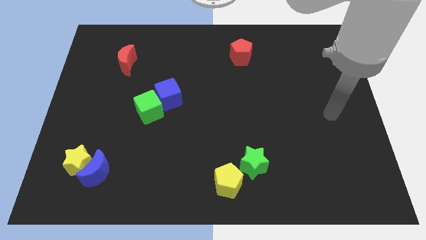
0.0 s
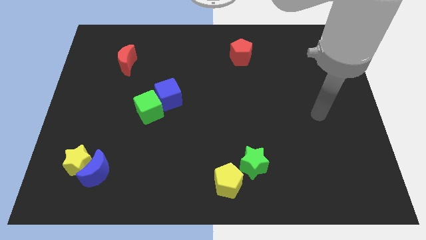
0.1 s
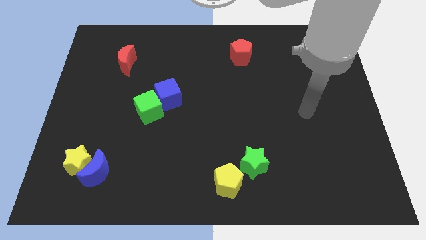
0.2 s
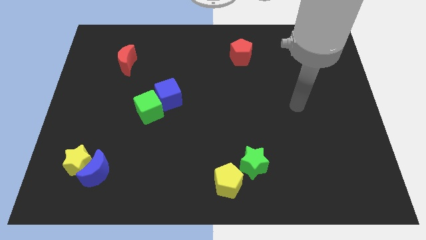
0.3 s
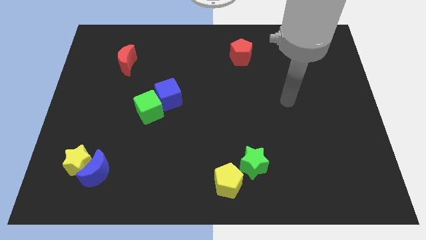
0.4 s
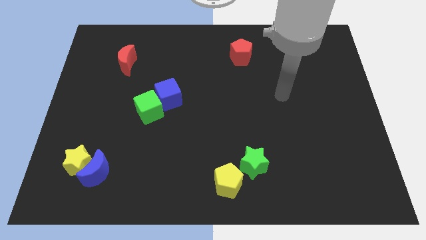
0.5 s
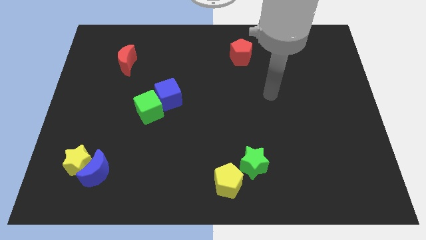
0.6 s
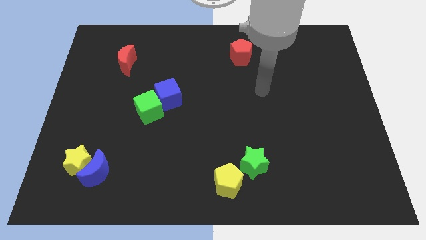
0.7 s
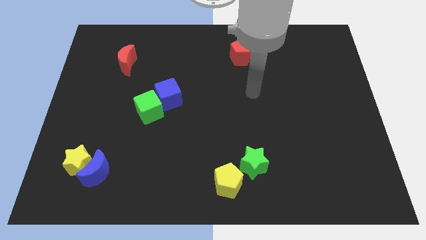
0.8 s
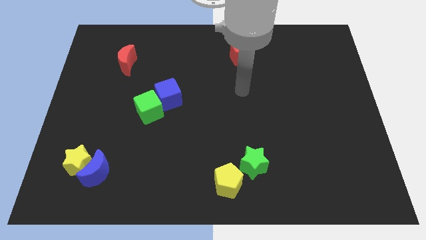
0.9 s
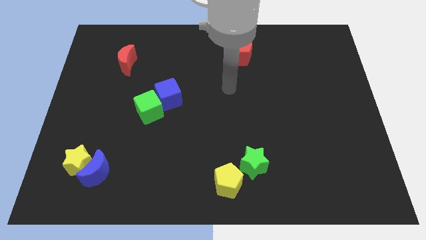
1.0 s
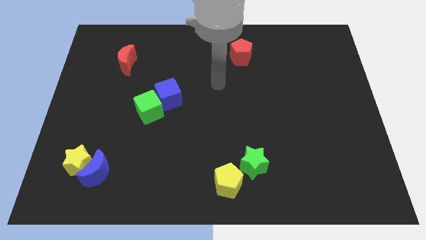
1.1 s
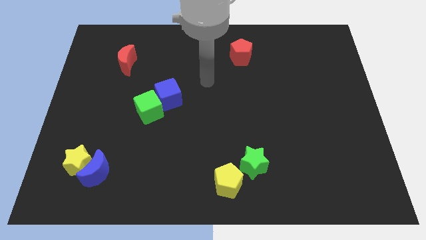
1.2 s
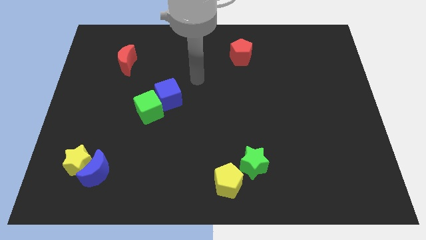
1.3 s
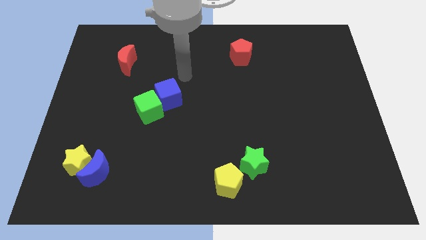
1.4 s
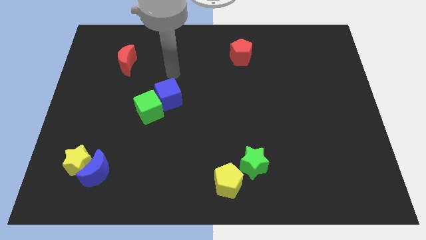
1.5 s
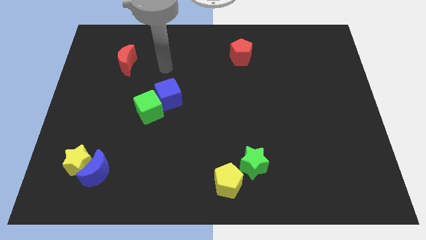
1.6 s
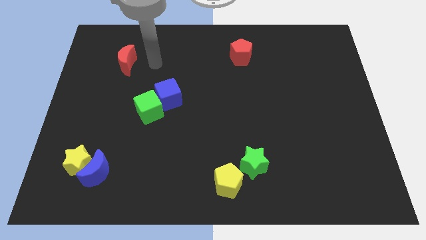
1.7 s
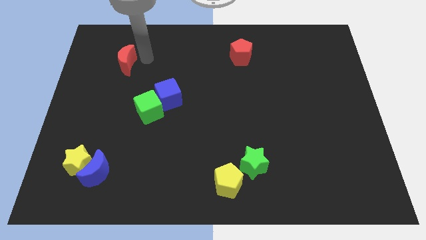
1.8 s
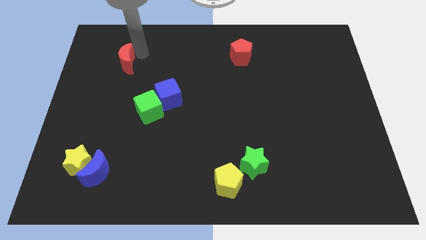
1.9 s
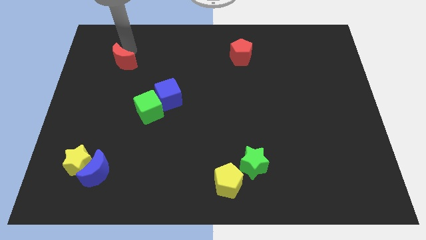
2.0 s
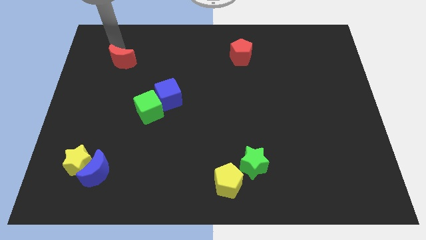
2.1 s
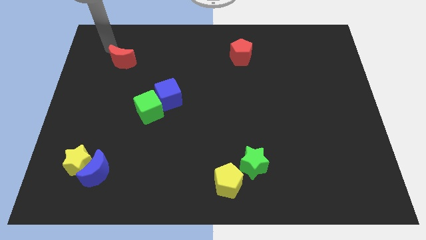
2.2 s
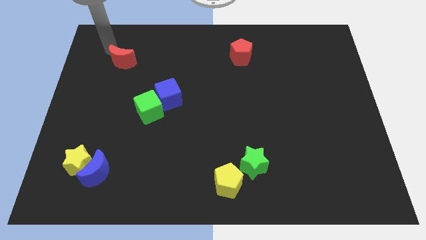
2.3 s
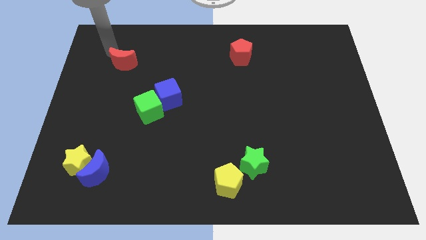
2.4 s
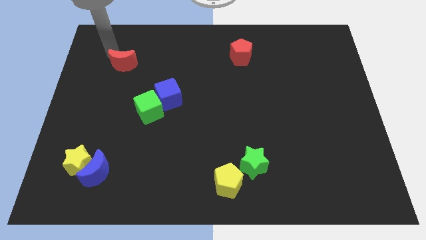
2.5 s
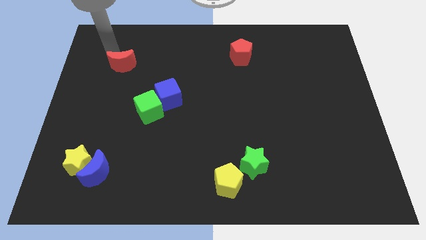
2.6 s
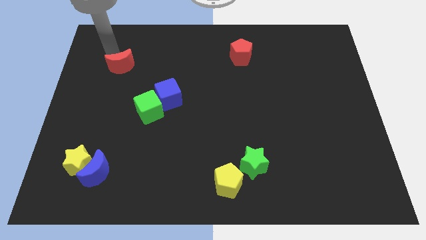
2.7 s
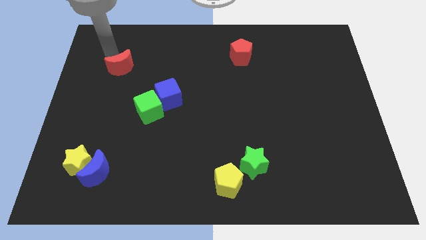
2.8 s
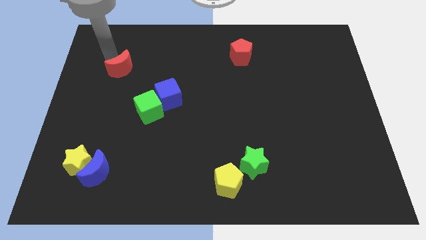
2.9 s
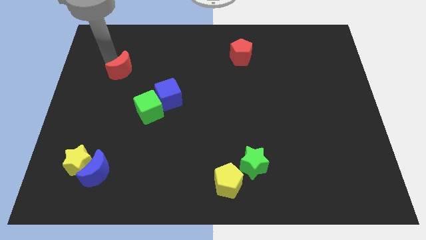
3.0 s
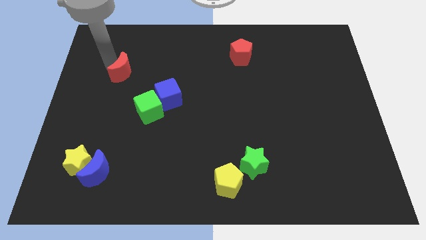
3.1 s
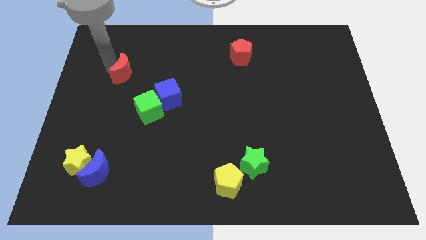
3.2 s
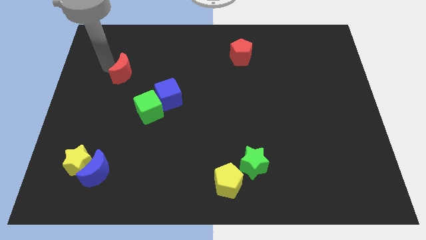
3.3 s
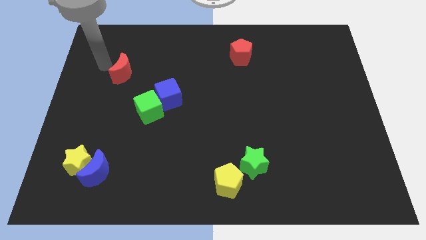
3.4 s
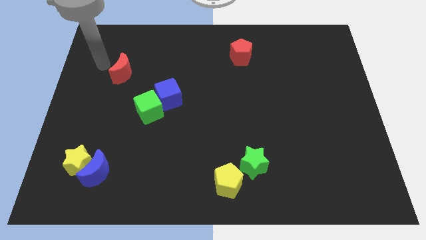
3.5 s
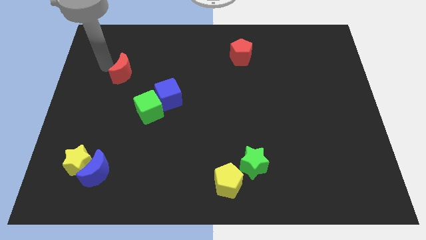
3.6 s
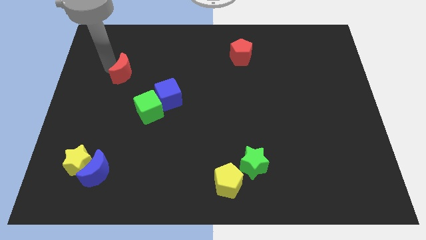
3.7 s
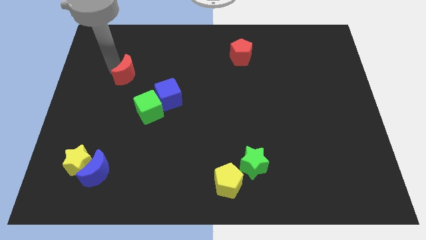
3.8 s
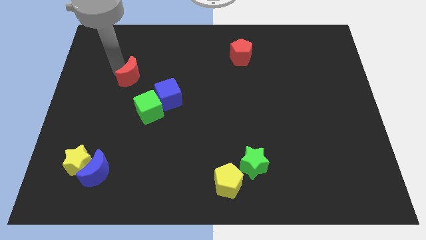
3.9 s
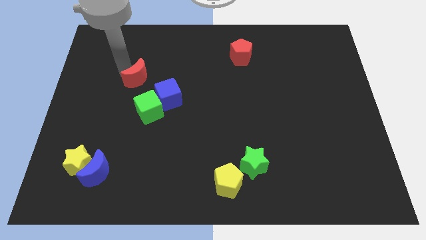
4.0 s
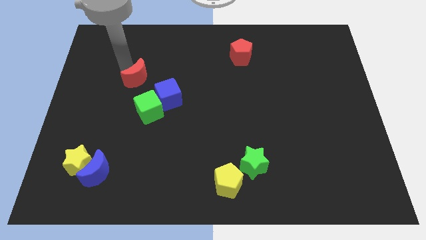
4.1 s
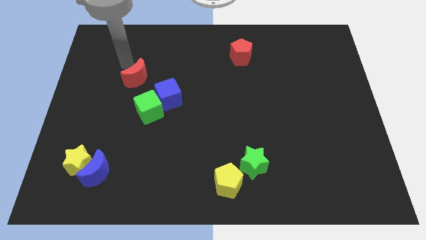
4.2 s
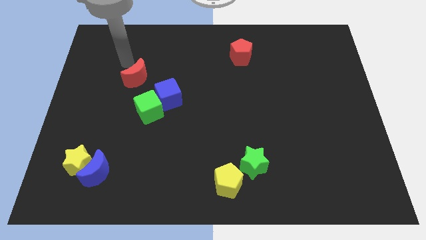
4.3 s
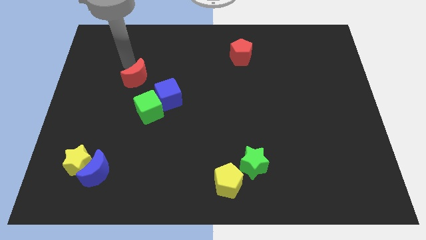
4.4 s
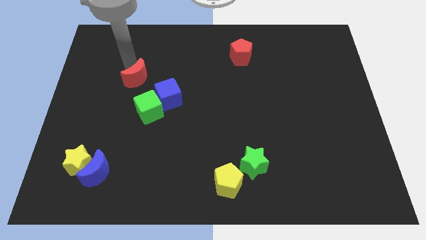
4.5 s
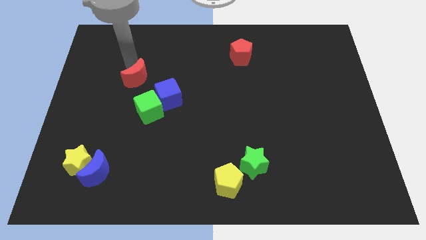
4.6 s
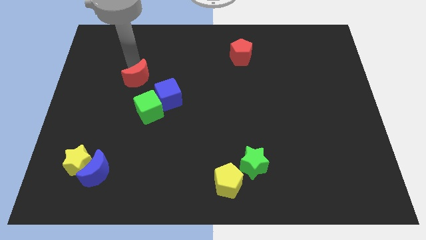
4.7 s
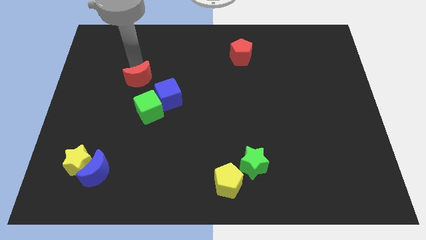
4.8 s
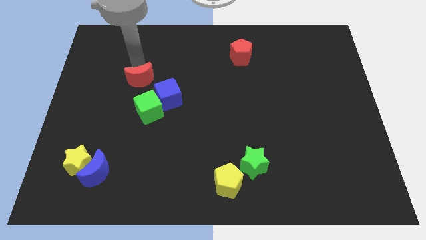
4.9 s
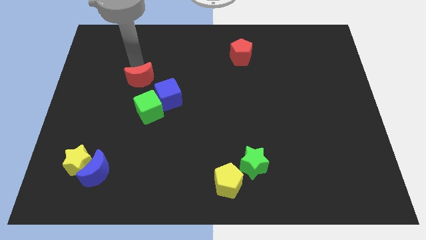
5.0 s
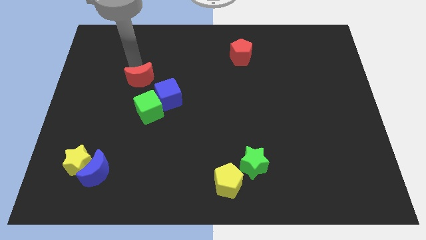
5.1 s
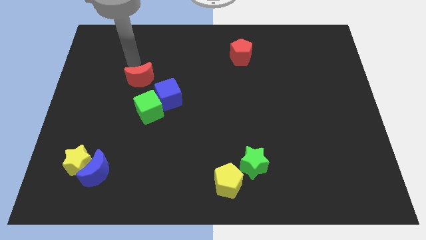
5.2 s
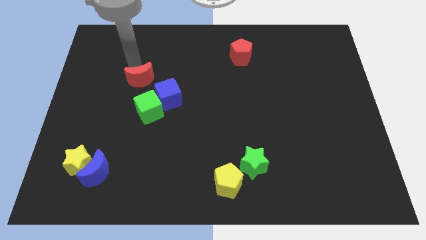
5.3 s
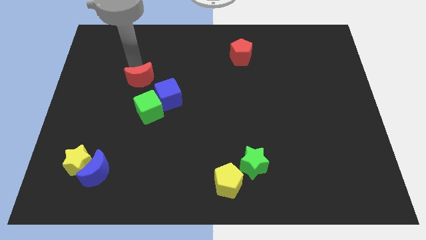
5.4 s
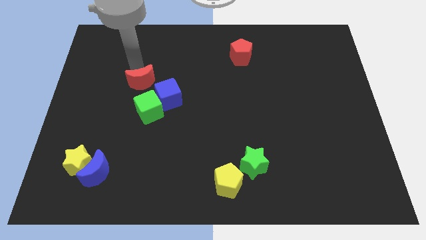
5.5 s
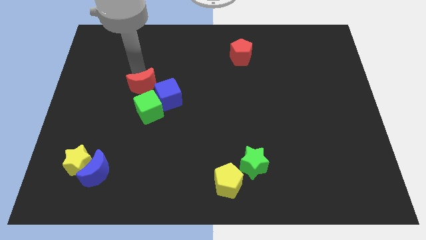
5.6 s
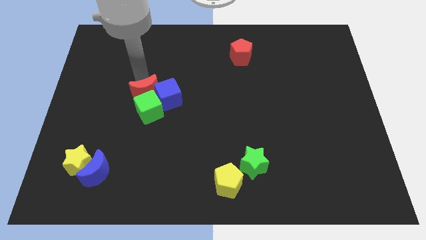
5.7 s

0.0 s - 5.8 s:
put the red moon close to the green cube

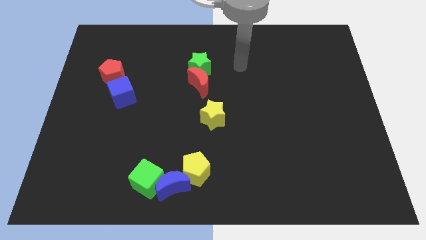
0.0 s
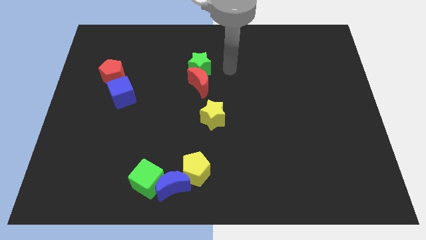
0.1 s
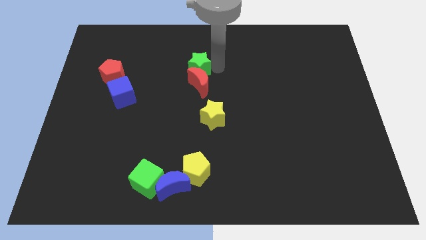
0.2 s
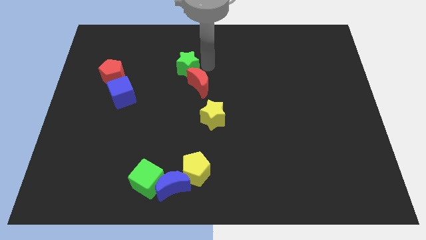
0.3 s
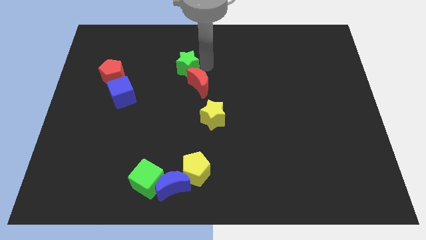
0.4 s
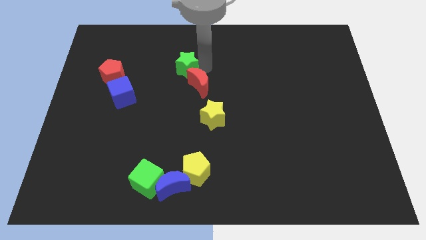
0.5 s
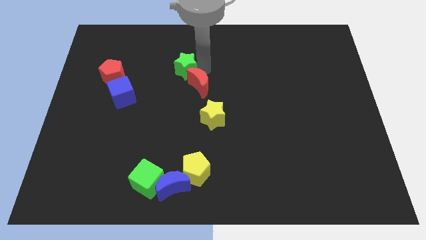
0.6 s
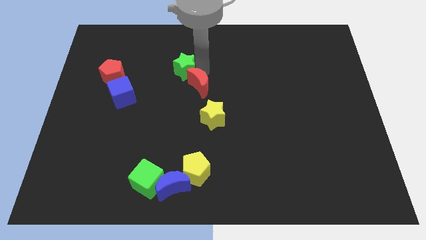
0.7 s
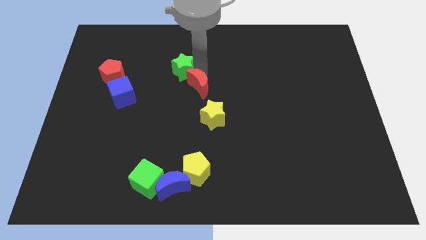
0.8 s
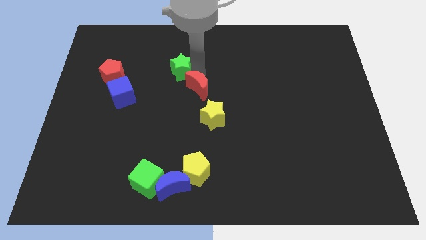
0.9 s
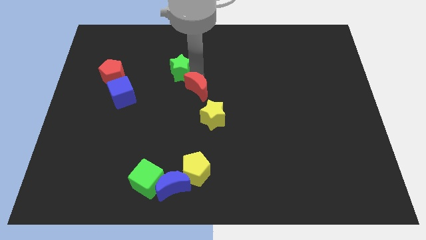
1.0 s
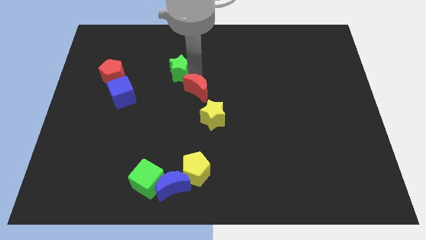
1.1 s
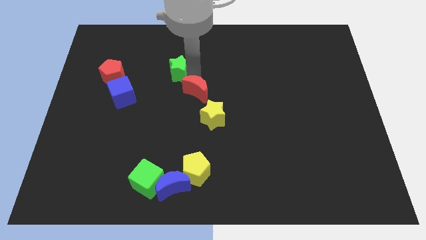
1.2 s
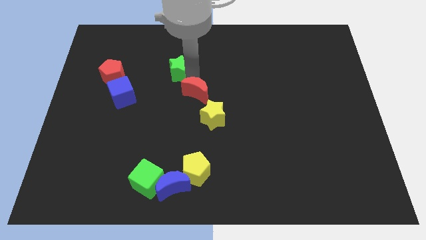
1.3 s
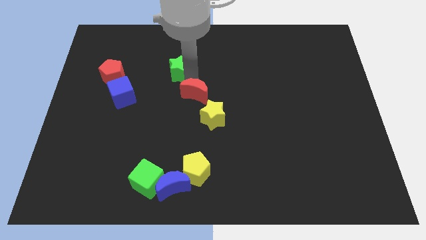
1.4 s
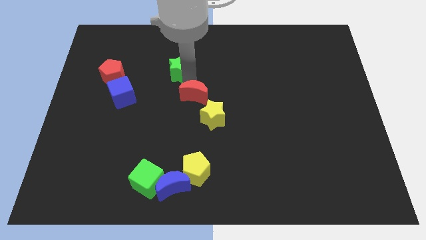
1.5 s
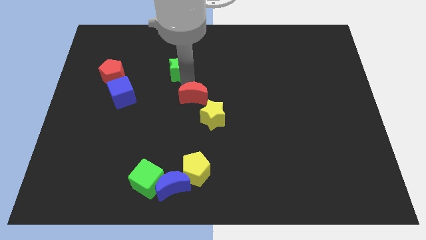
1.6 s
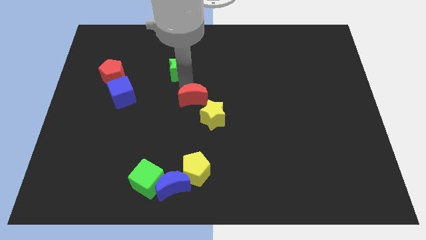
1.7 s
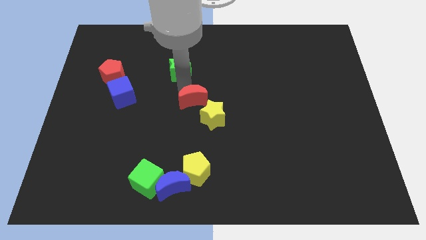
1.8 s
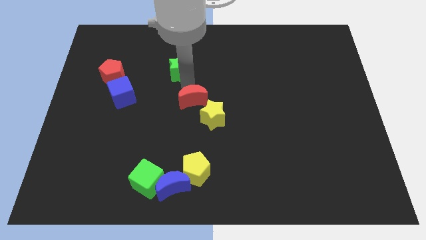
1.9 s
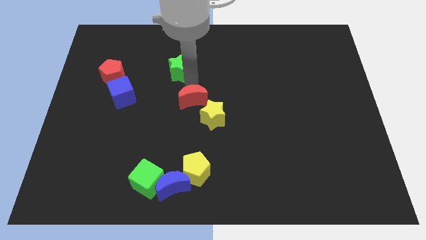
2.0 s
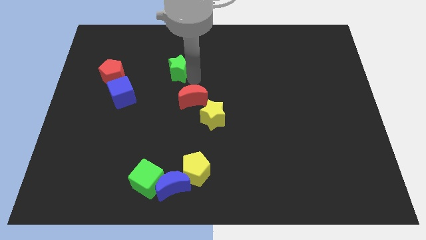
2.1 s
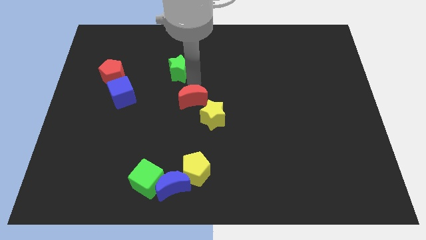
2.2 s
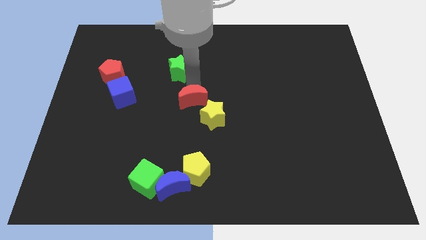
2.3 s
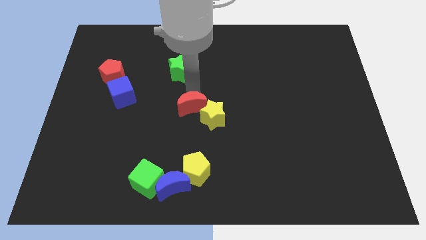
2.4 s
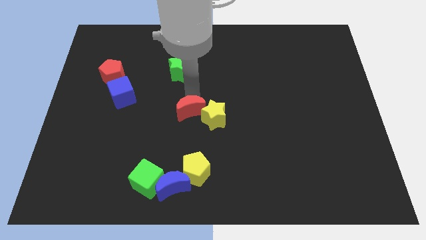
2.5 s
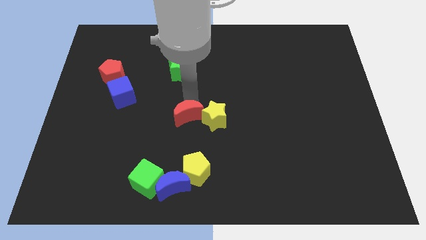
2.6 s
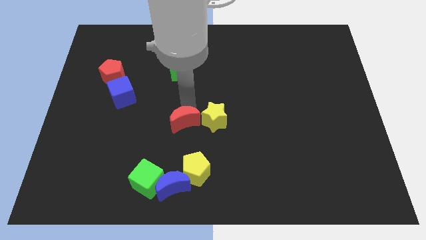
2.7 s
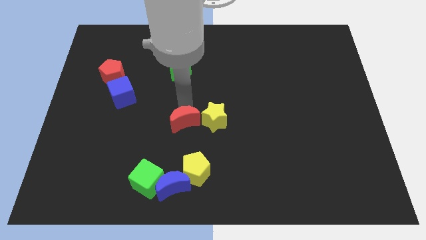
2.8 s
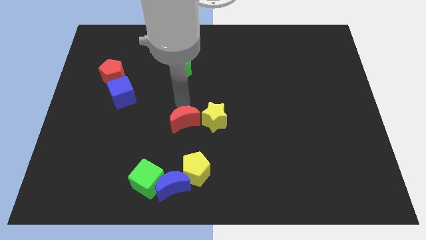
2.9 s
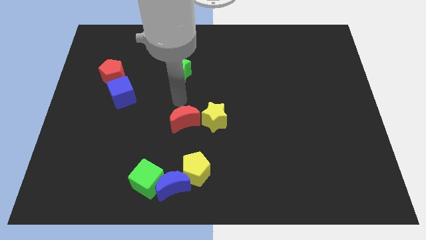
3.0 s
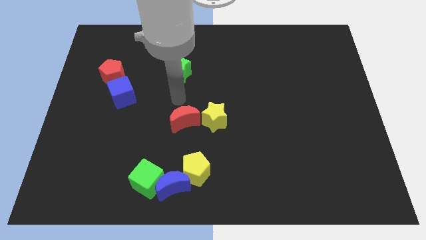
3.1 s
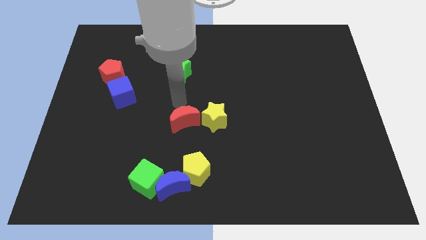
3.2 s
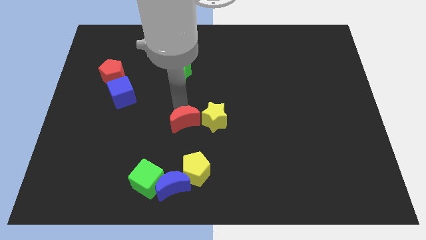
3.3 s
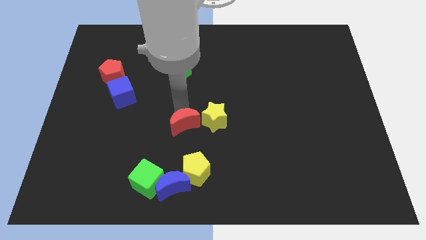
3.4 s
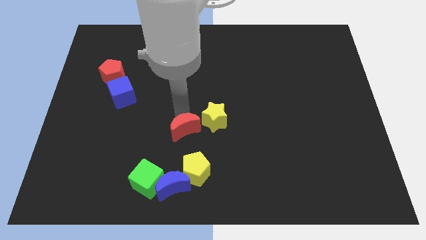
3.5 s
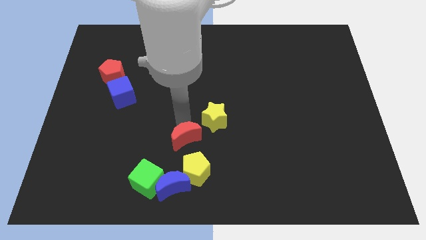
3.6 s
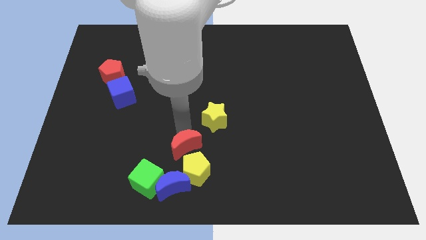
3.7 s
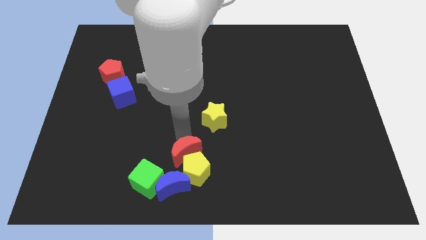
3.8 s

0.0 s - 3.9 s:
put the red moon next to the yellow pentagon
